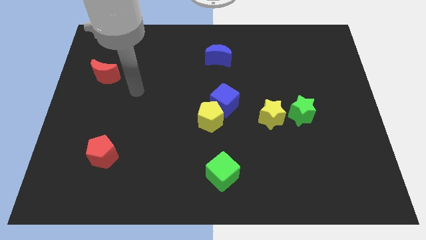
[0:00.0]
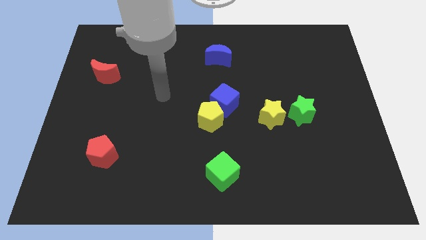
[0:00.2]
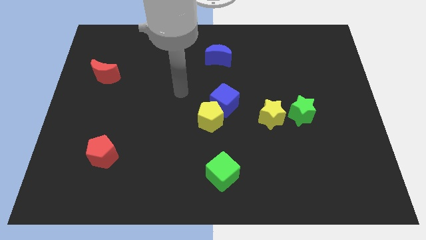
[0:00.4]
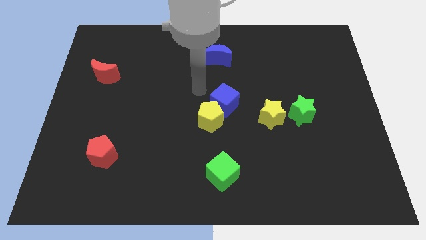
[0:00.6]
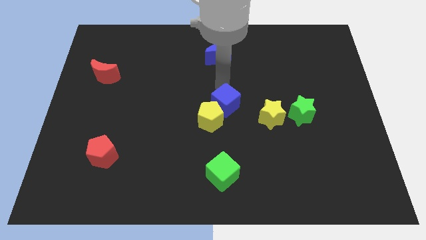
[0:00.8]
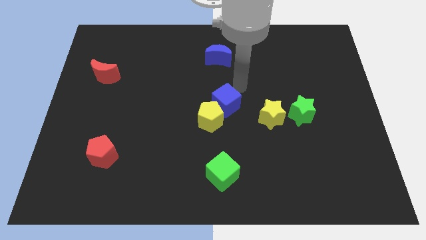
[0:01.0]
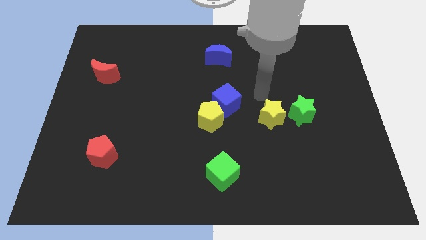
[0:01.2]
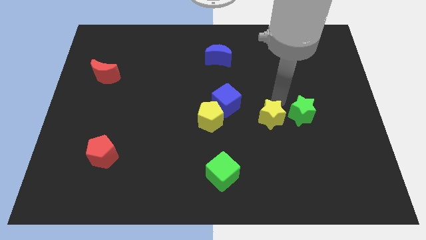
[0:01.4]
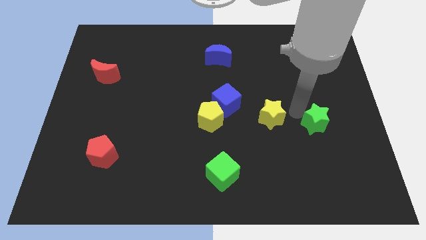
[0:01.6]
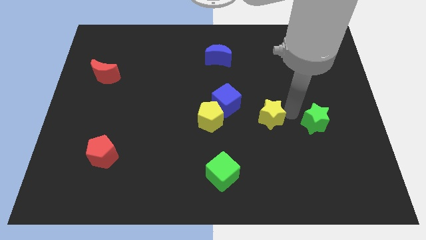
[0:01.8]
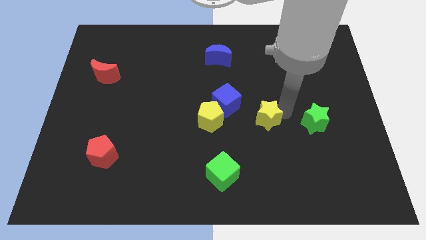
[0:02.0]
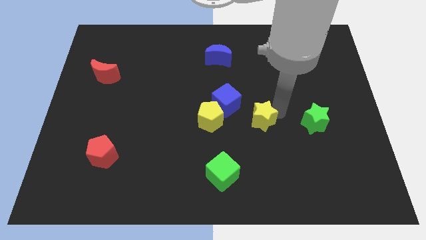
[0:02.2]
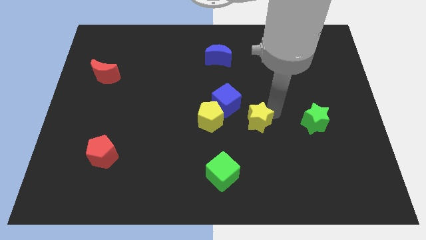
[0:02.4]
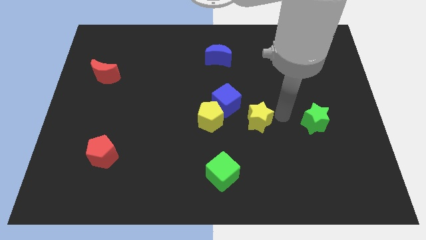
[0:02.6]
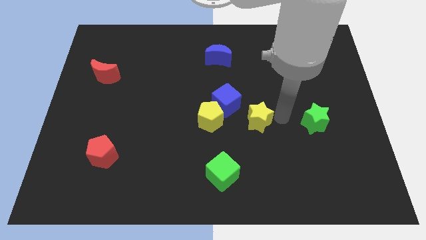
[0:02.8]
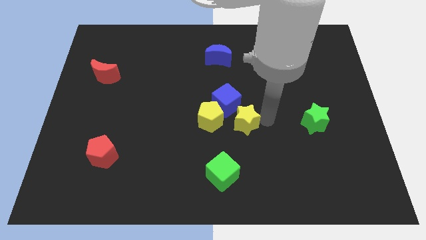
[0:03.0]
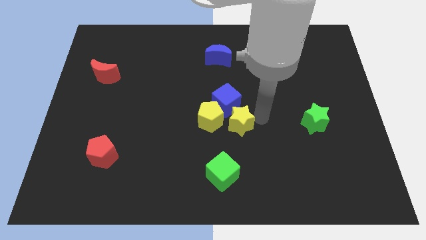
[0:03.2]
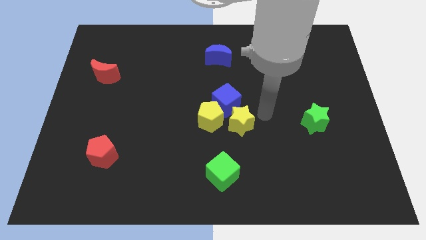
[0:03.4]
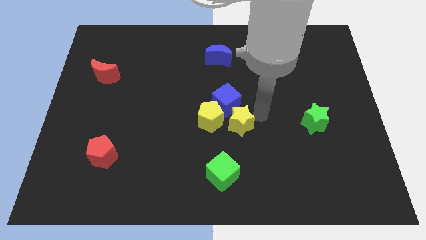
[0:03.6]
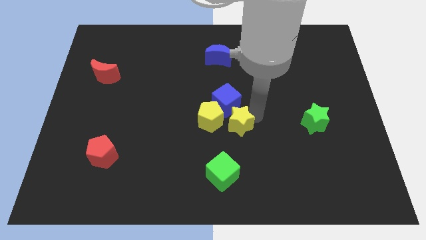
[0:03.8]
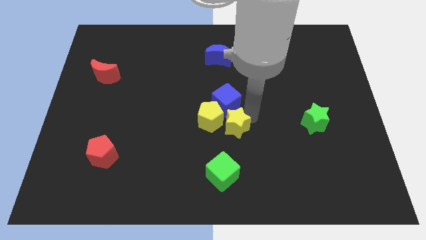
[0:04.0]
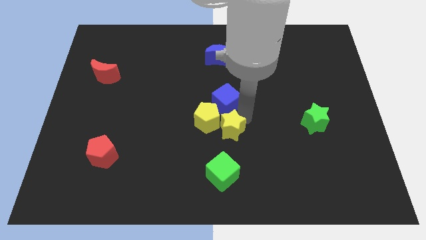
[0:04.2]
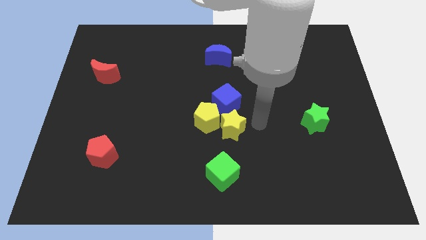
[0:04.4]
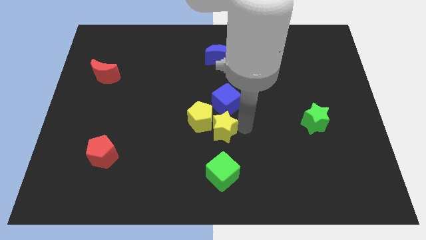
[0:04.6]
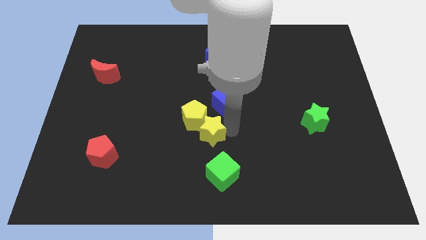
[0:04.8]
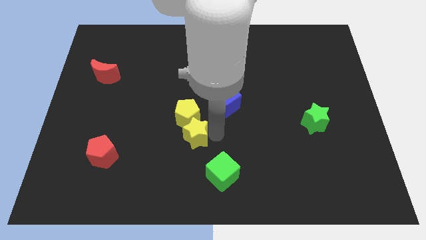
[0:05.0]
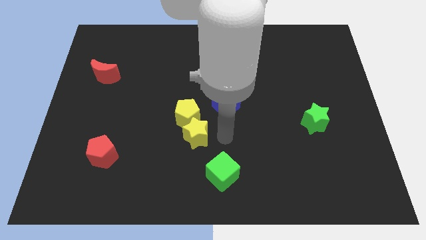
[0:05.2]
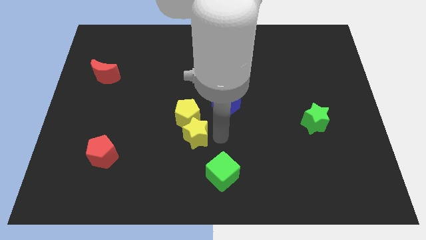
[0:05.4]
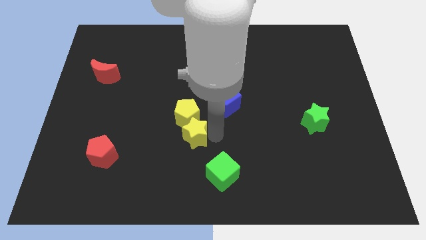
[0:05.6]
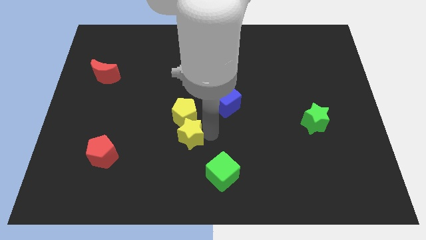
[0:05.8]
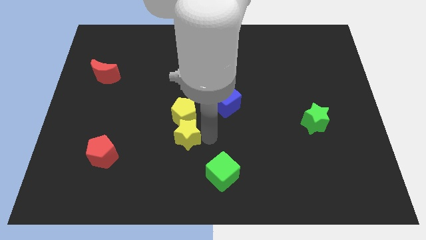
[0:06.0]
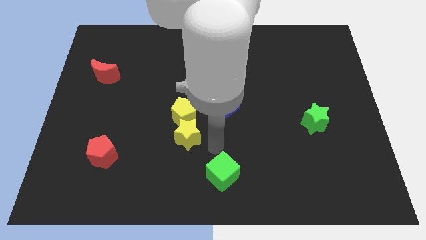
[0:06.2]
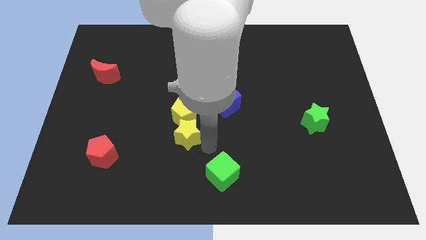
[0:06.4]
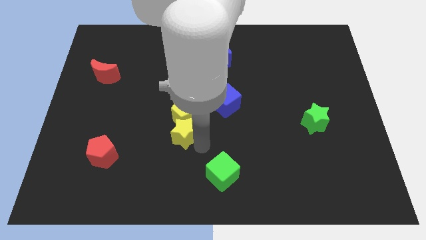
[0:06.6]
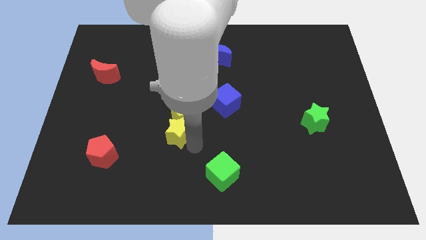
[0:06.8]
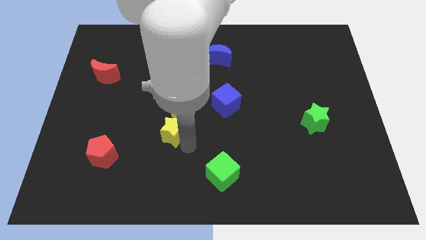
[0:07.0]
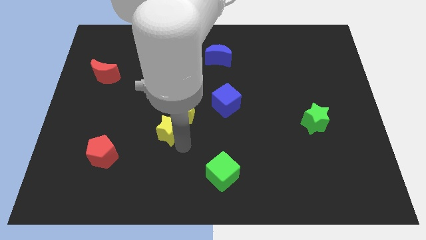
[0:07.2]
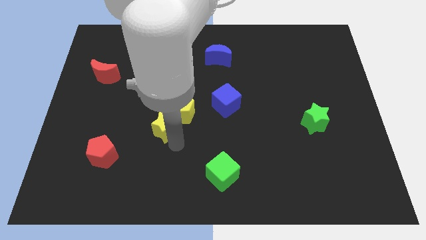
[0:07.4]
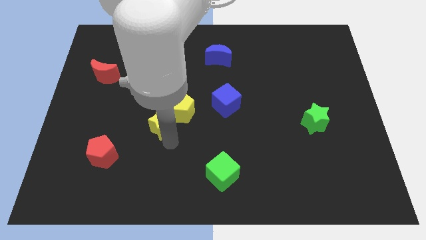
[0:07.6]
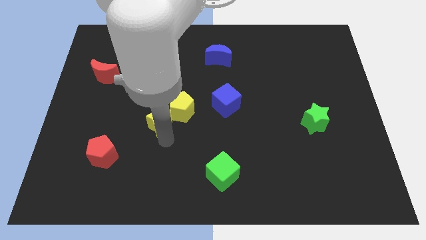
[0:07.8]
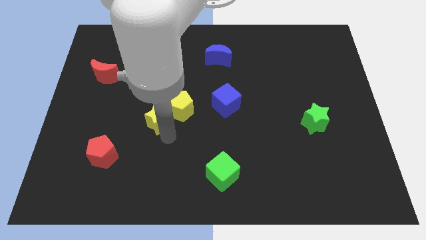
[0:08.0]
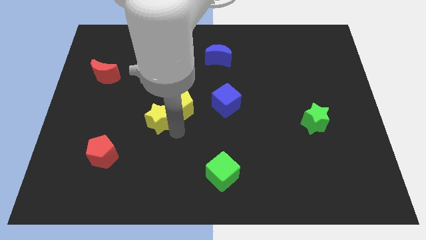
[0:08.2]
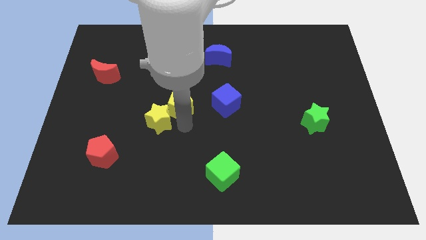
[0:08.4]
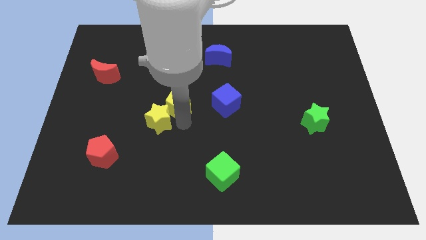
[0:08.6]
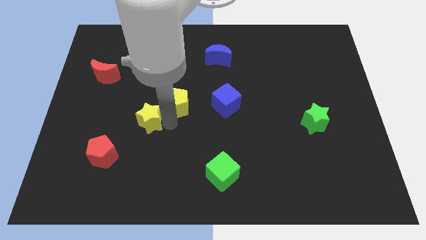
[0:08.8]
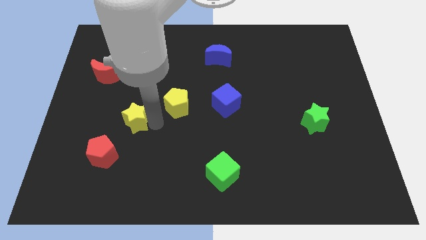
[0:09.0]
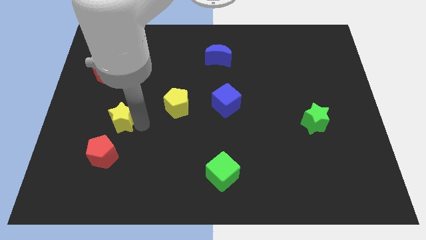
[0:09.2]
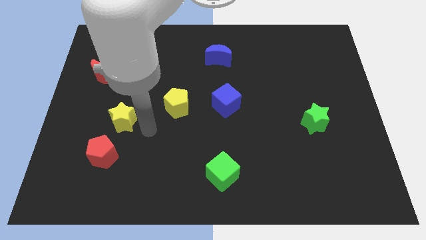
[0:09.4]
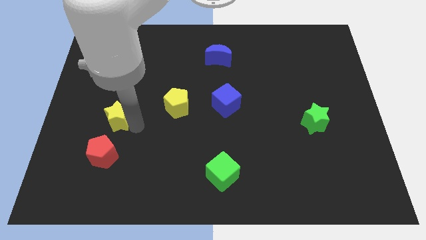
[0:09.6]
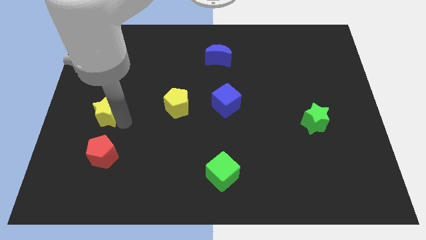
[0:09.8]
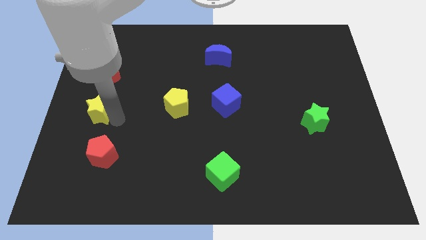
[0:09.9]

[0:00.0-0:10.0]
slide the yellow star to the center left

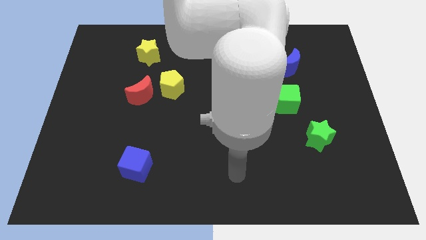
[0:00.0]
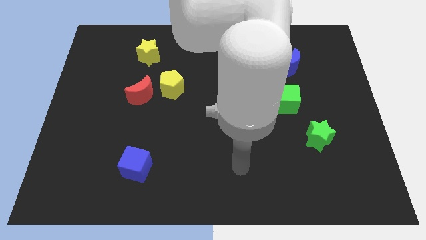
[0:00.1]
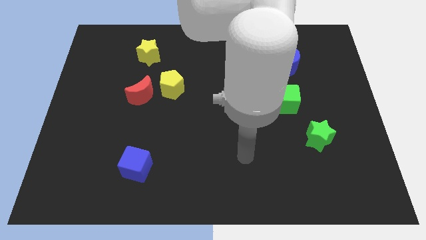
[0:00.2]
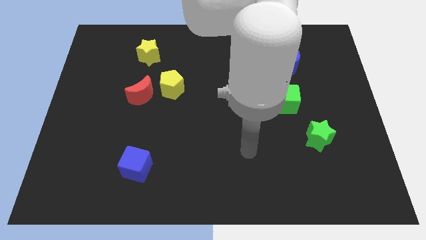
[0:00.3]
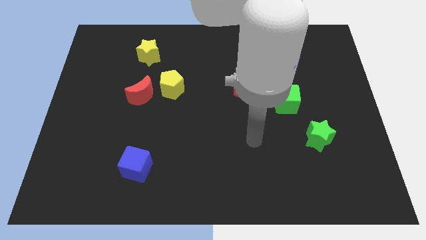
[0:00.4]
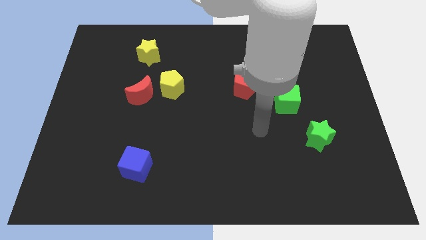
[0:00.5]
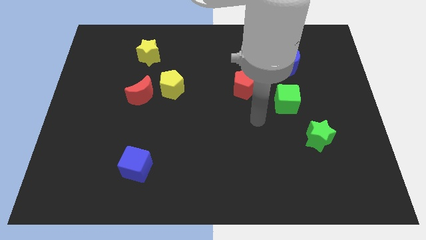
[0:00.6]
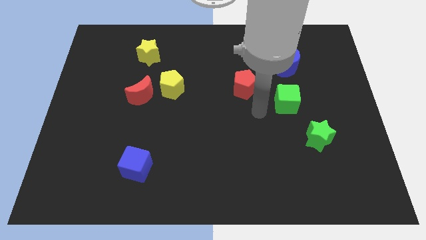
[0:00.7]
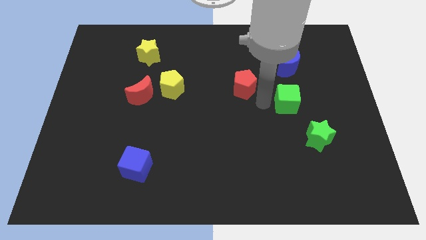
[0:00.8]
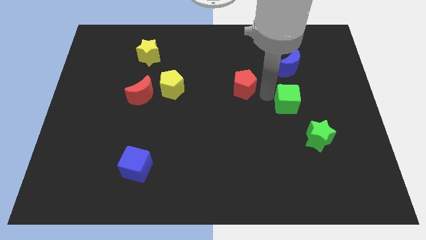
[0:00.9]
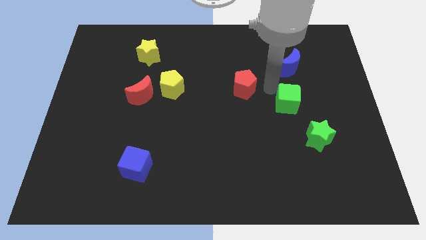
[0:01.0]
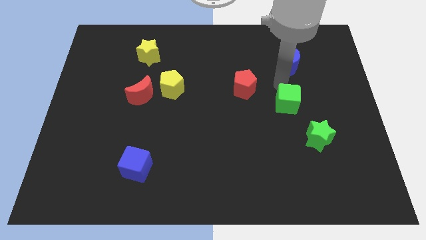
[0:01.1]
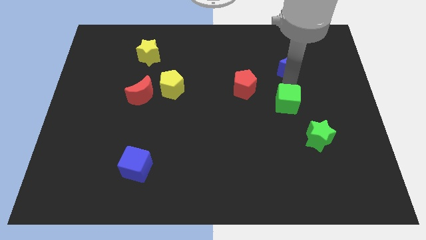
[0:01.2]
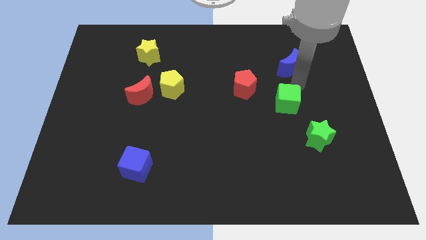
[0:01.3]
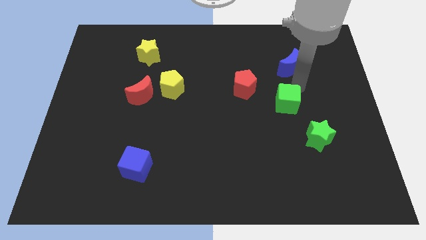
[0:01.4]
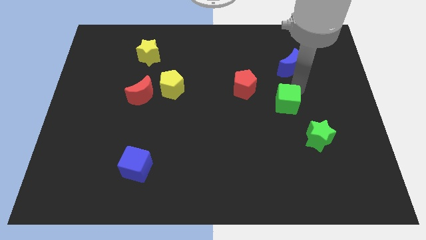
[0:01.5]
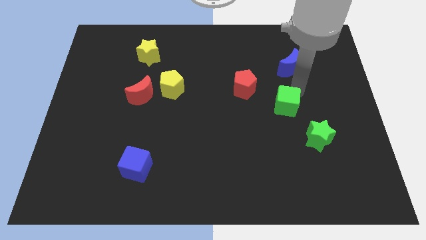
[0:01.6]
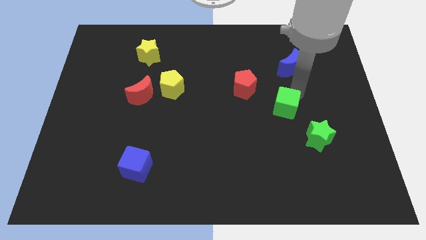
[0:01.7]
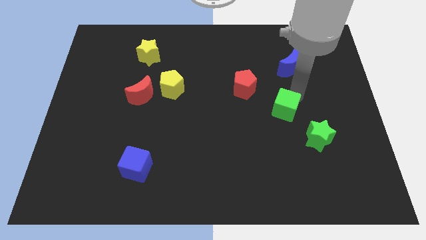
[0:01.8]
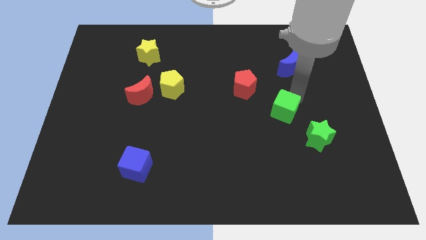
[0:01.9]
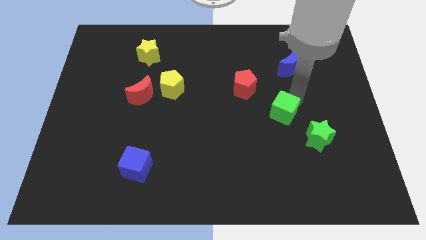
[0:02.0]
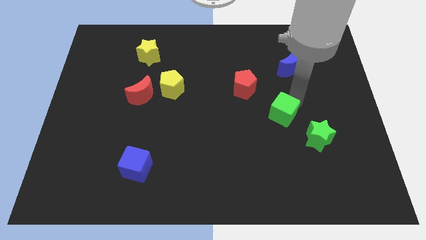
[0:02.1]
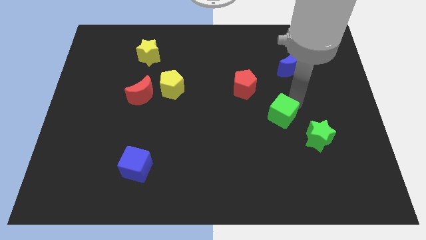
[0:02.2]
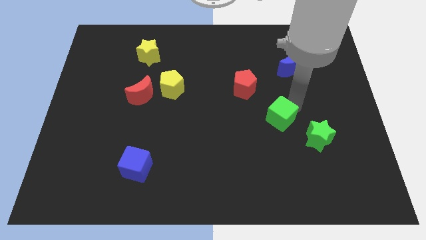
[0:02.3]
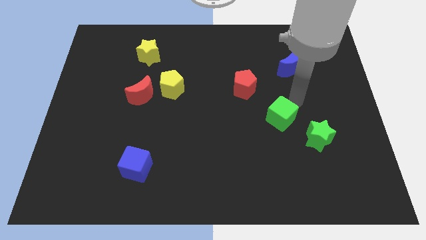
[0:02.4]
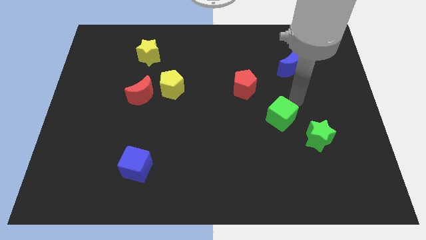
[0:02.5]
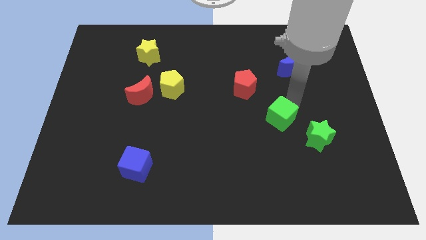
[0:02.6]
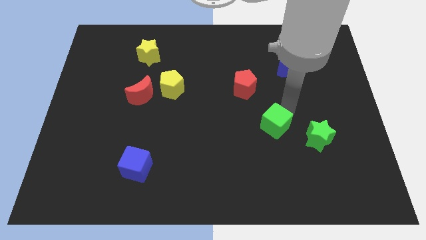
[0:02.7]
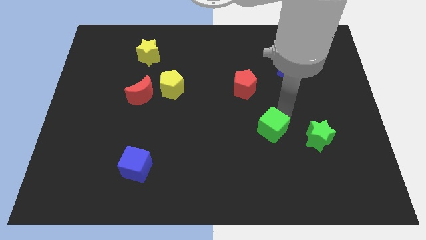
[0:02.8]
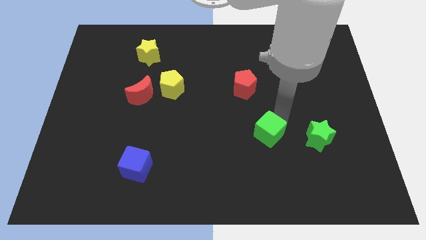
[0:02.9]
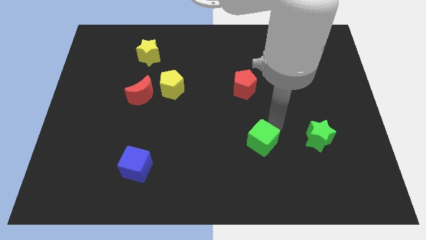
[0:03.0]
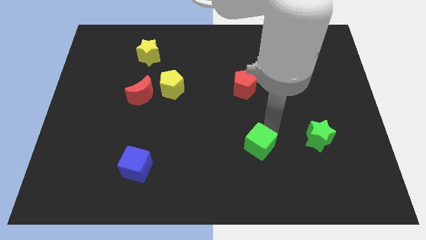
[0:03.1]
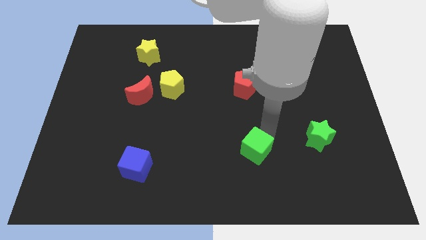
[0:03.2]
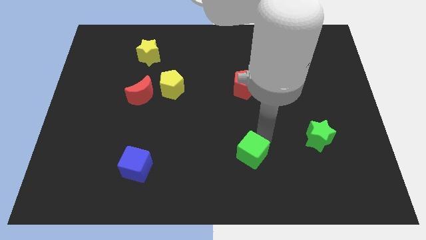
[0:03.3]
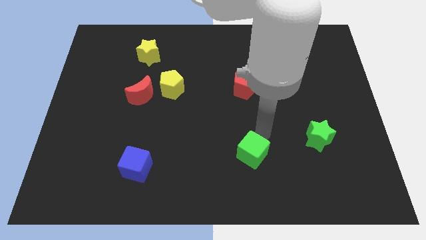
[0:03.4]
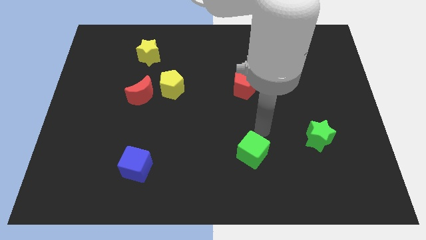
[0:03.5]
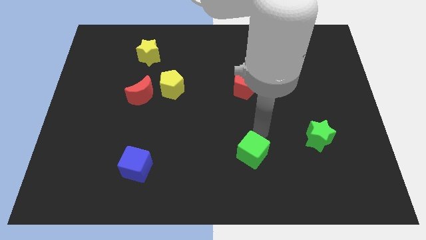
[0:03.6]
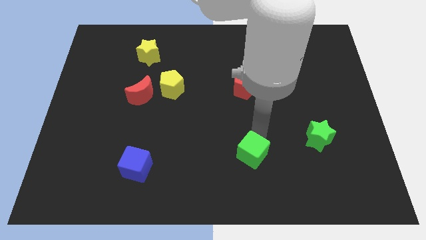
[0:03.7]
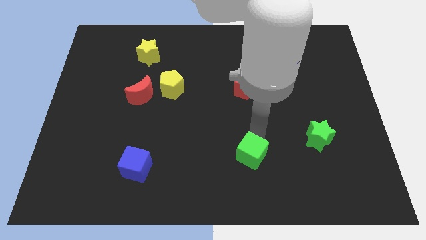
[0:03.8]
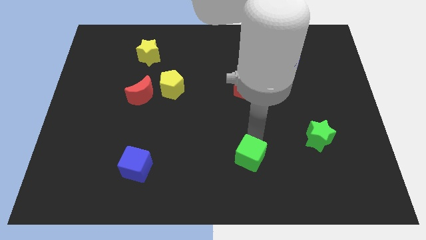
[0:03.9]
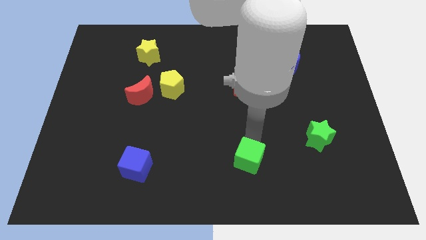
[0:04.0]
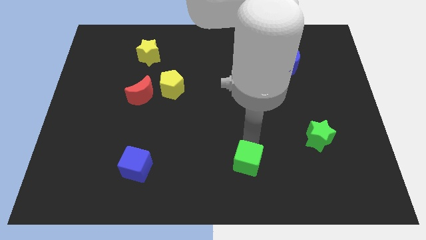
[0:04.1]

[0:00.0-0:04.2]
put the green cube to the bottom side
